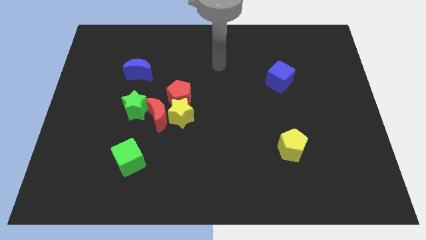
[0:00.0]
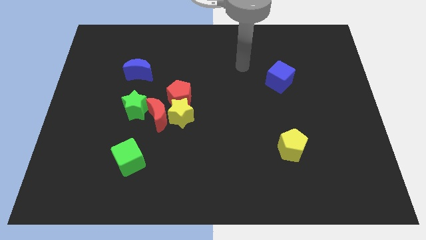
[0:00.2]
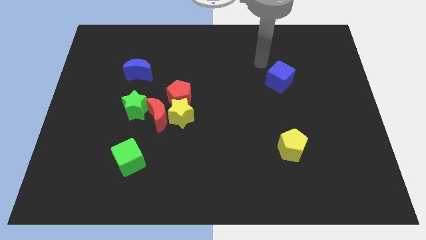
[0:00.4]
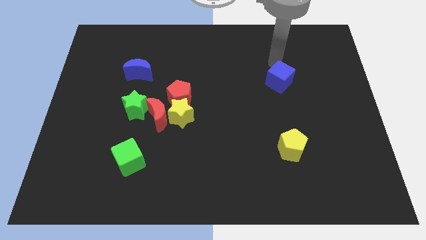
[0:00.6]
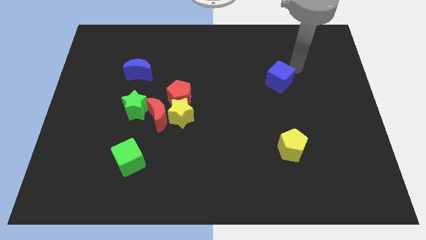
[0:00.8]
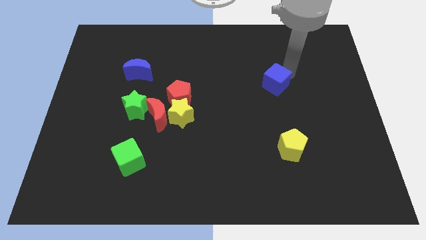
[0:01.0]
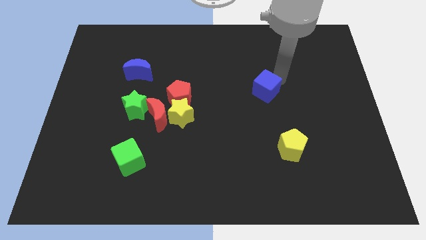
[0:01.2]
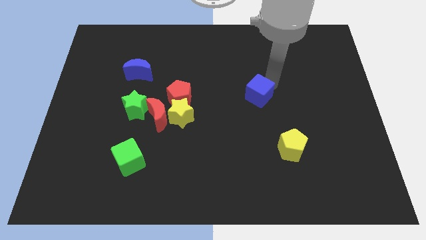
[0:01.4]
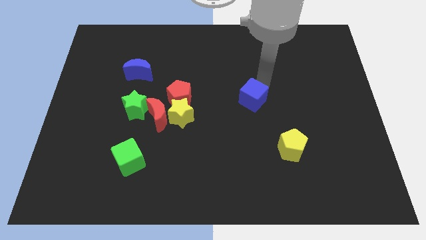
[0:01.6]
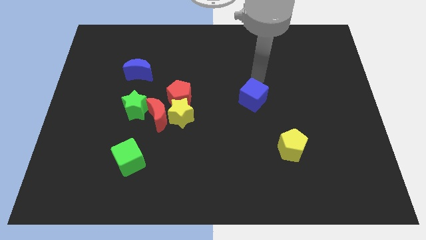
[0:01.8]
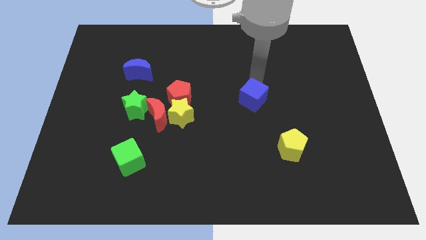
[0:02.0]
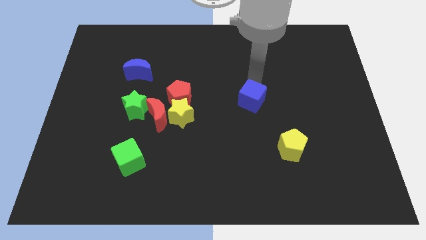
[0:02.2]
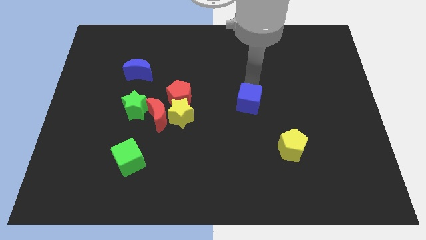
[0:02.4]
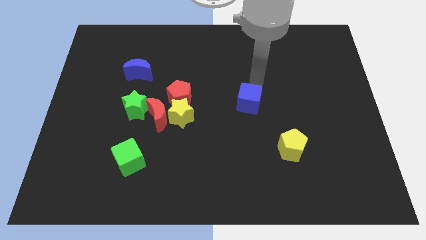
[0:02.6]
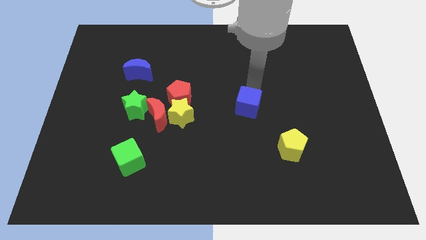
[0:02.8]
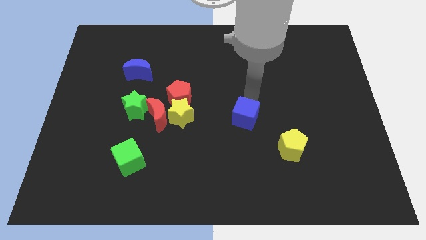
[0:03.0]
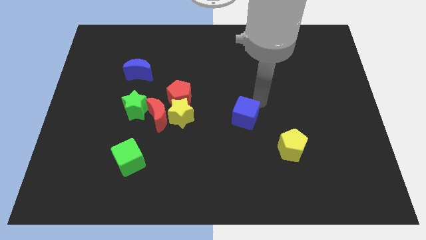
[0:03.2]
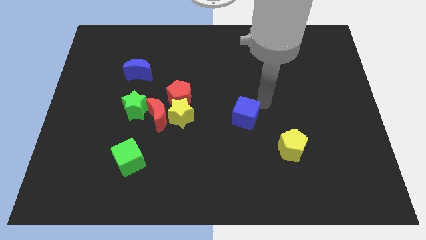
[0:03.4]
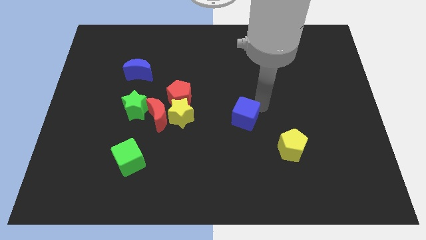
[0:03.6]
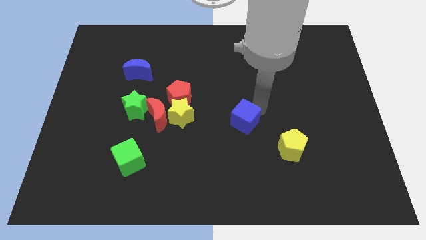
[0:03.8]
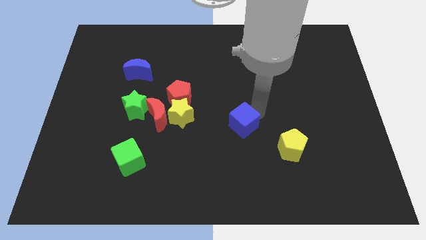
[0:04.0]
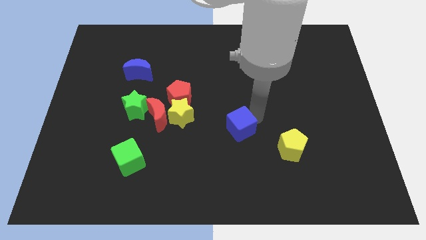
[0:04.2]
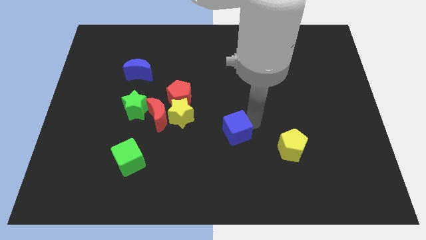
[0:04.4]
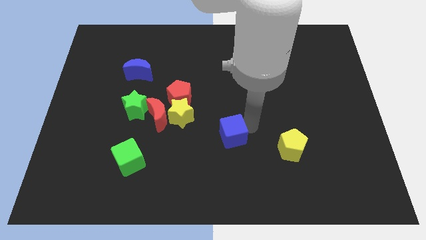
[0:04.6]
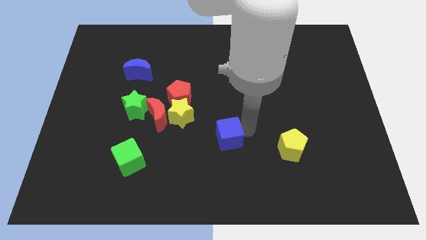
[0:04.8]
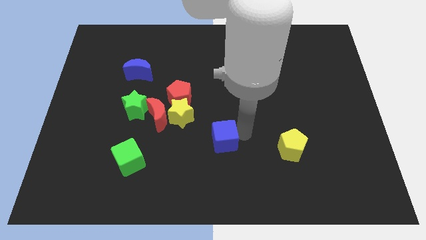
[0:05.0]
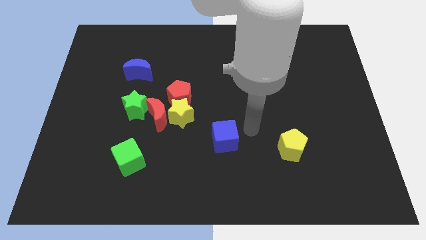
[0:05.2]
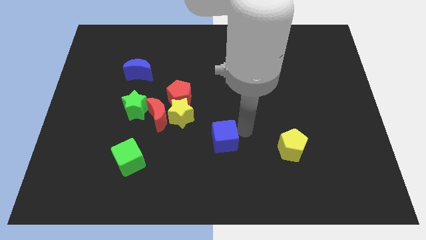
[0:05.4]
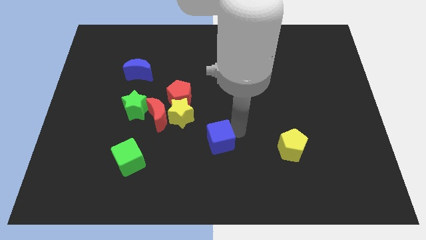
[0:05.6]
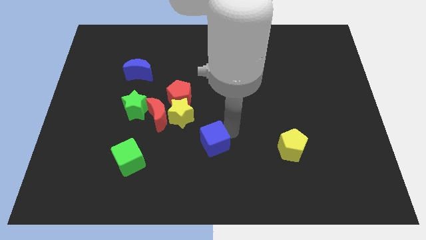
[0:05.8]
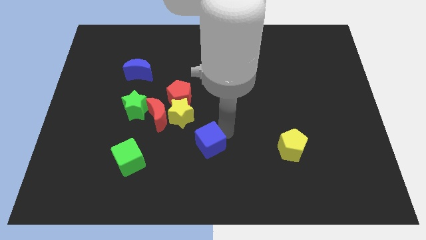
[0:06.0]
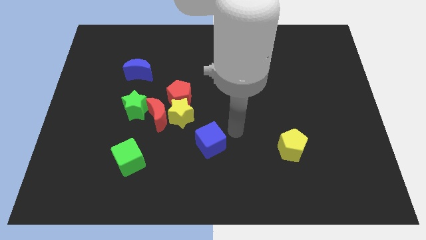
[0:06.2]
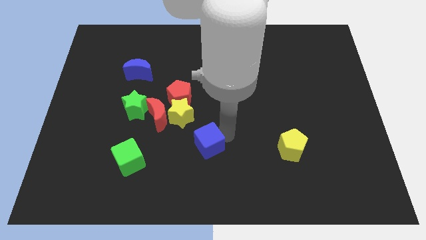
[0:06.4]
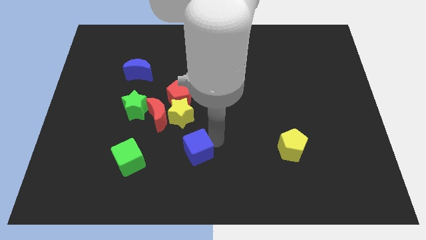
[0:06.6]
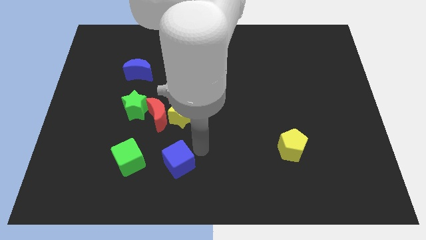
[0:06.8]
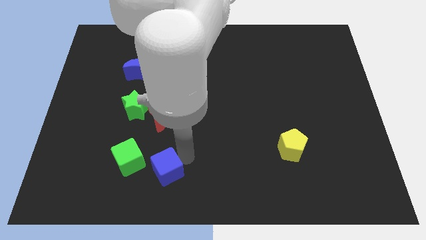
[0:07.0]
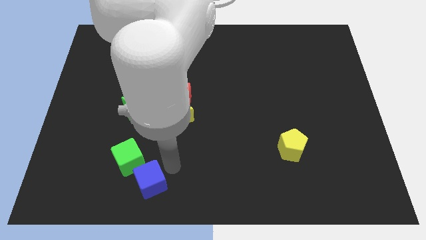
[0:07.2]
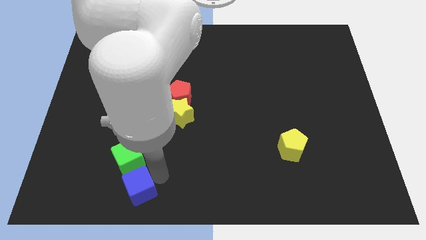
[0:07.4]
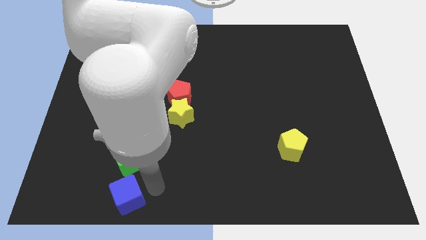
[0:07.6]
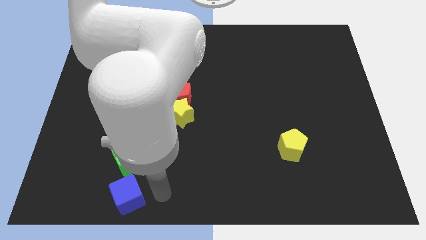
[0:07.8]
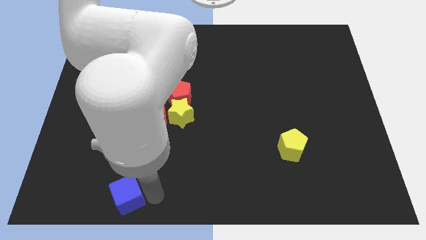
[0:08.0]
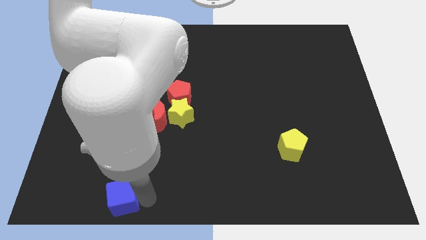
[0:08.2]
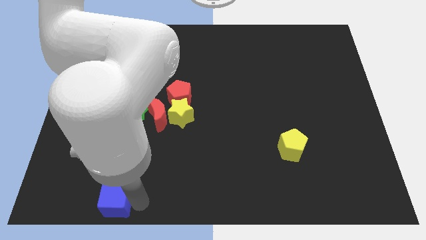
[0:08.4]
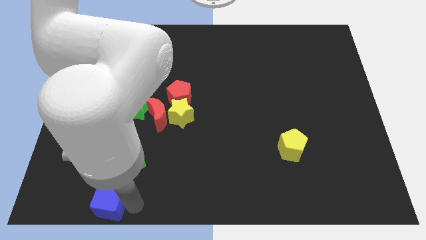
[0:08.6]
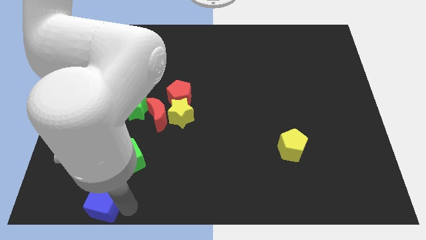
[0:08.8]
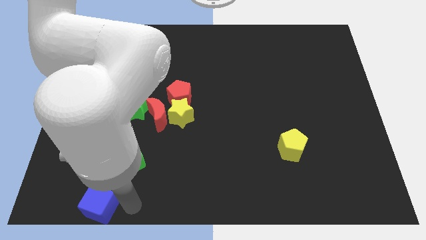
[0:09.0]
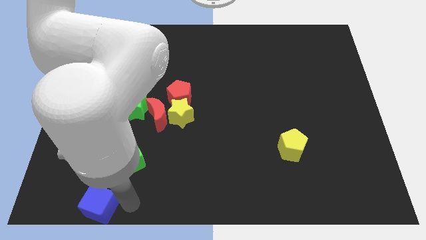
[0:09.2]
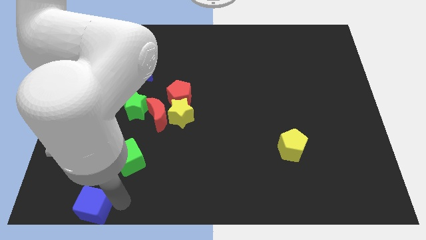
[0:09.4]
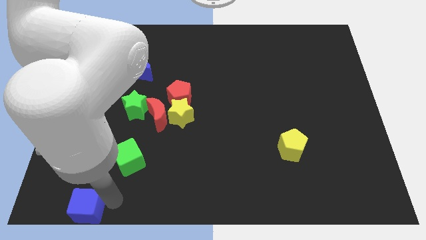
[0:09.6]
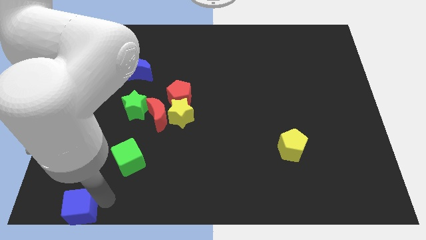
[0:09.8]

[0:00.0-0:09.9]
push the blue cube to the bottom left corner
